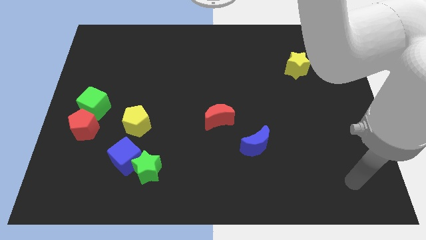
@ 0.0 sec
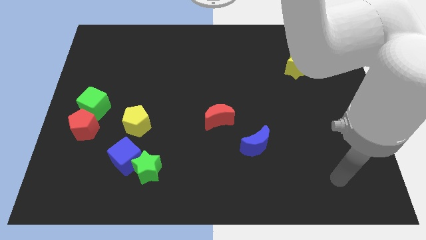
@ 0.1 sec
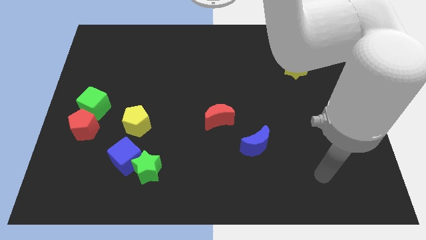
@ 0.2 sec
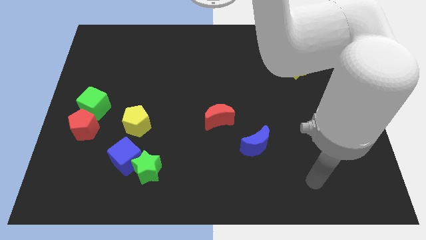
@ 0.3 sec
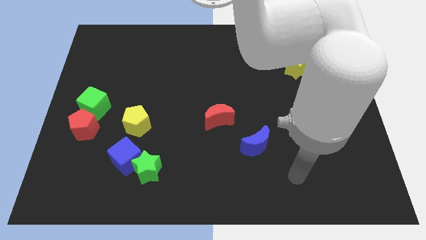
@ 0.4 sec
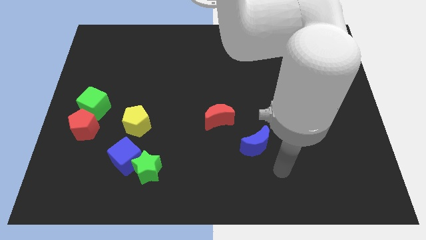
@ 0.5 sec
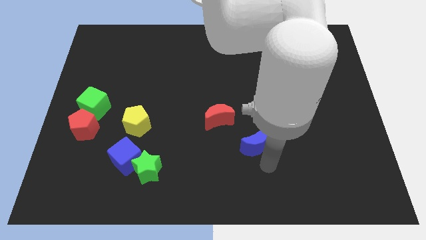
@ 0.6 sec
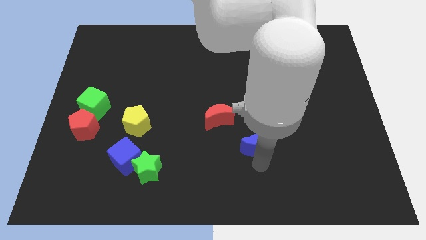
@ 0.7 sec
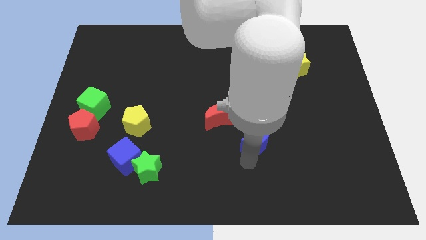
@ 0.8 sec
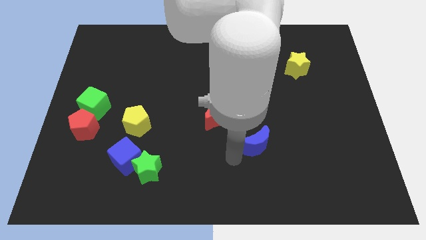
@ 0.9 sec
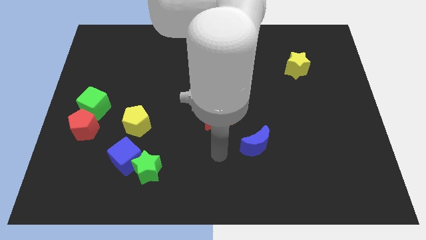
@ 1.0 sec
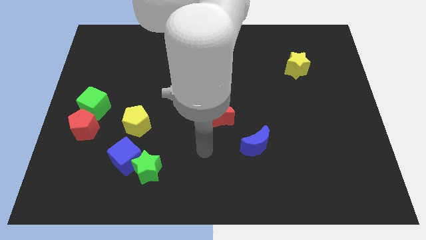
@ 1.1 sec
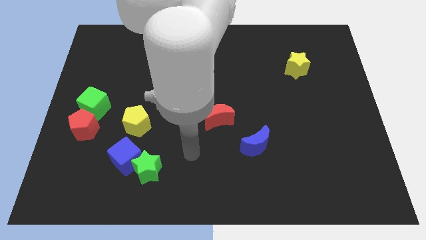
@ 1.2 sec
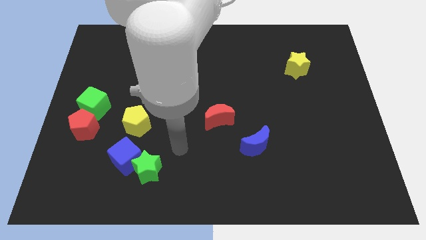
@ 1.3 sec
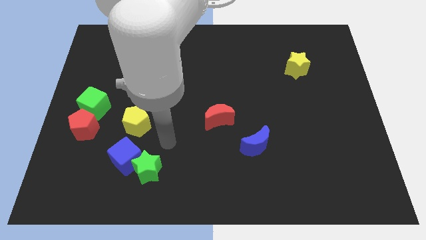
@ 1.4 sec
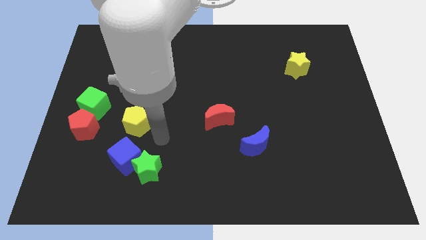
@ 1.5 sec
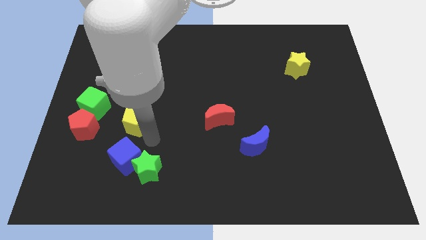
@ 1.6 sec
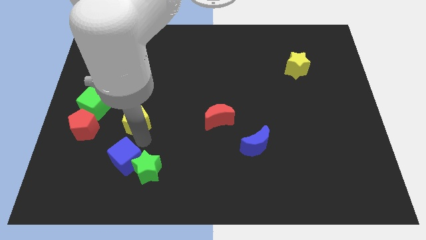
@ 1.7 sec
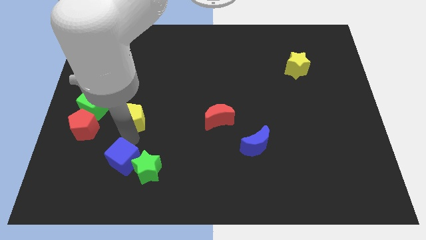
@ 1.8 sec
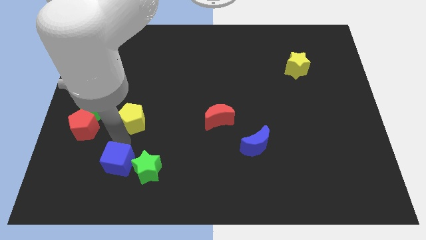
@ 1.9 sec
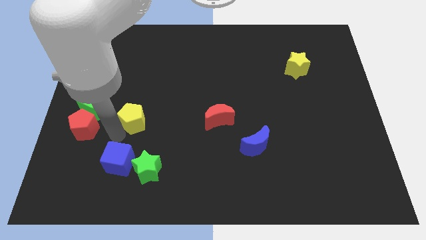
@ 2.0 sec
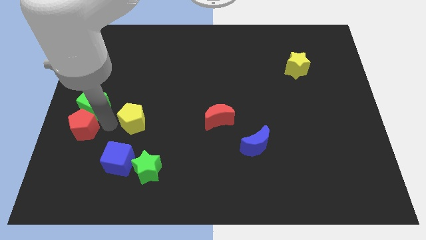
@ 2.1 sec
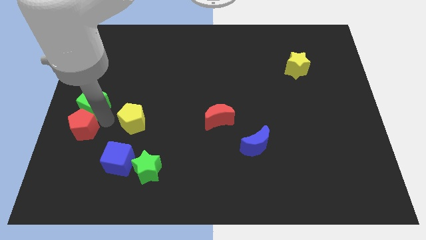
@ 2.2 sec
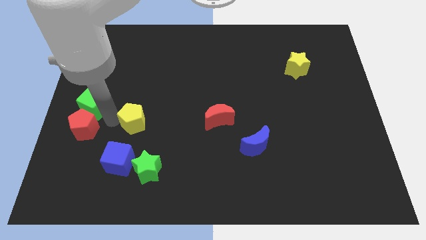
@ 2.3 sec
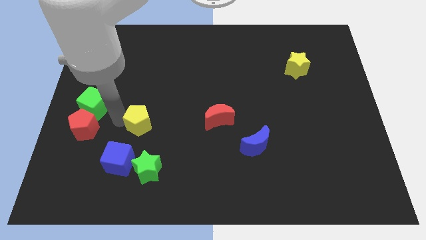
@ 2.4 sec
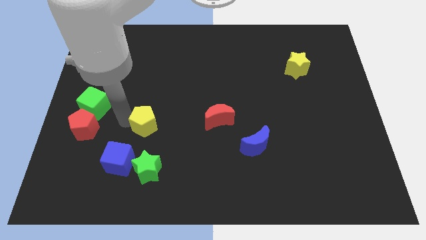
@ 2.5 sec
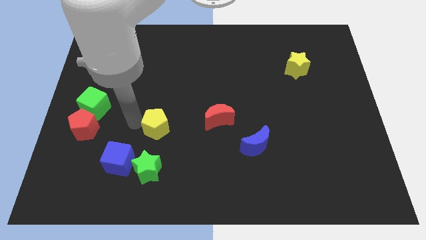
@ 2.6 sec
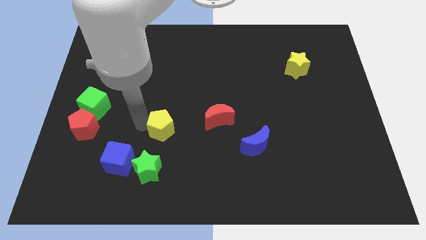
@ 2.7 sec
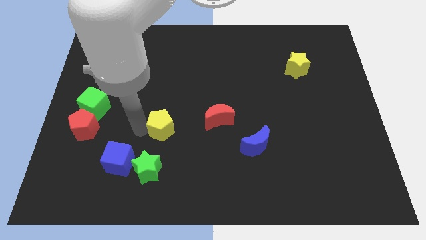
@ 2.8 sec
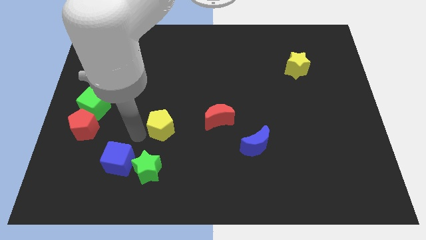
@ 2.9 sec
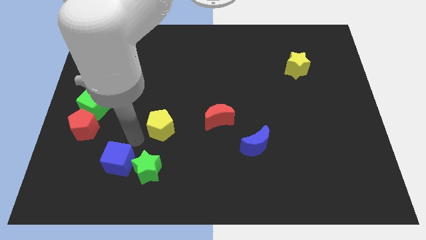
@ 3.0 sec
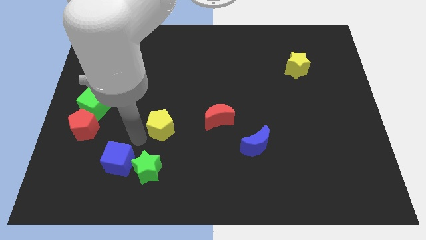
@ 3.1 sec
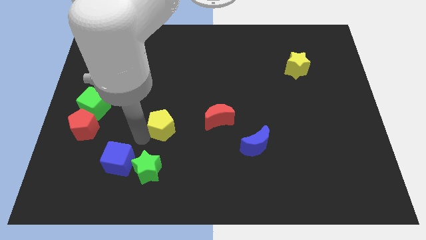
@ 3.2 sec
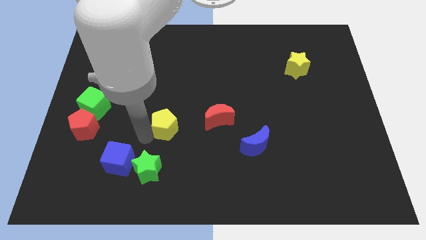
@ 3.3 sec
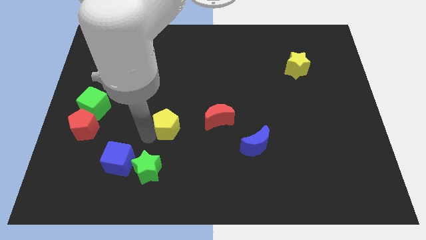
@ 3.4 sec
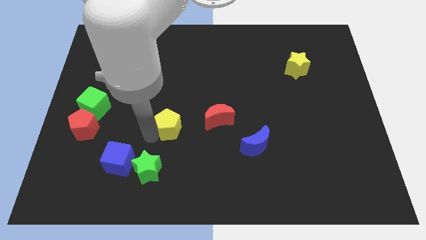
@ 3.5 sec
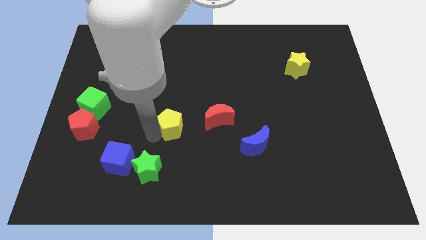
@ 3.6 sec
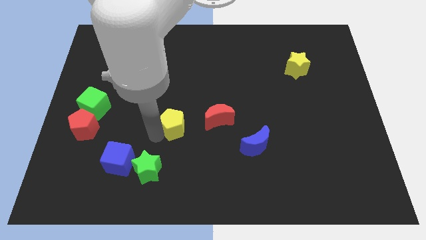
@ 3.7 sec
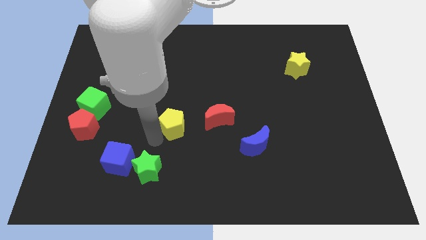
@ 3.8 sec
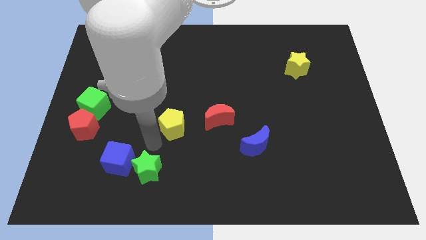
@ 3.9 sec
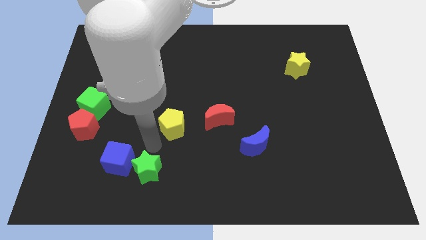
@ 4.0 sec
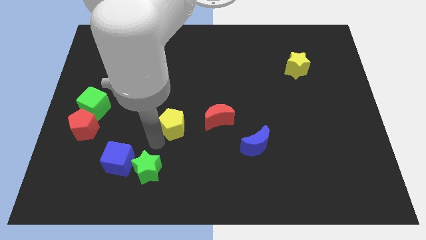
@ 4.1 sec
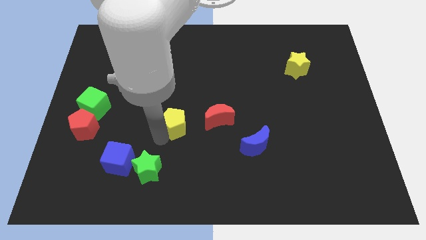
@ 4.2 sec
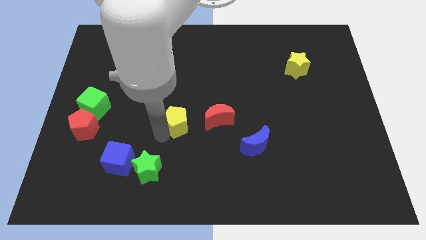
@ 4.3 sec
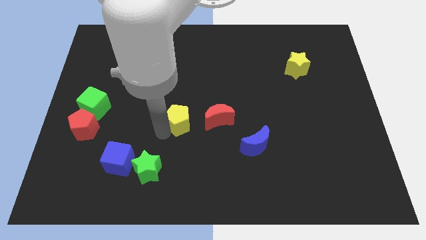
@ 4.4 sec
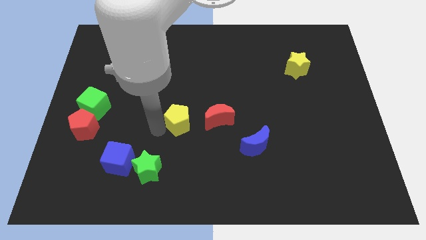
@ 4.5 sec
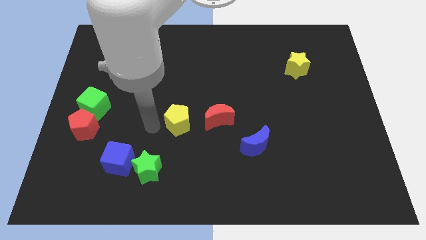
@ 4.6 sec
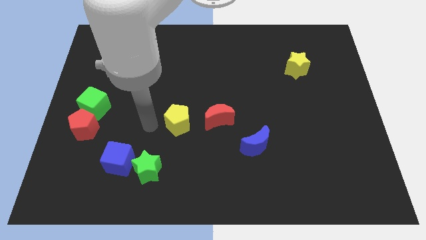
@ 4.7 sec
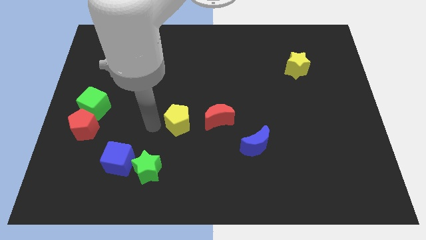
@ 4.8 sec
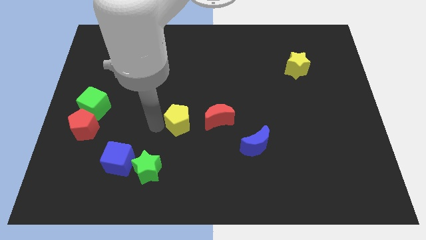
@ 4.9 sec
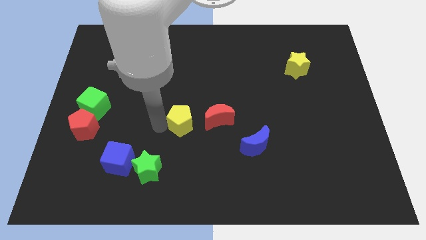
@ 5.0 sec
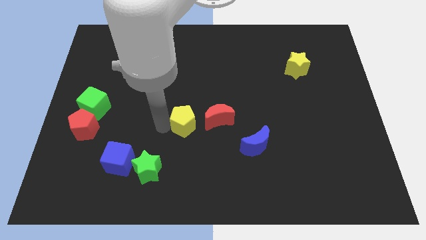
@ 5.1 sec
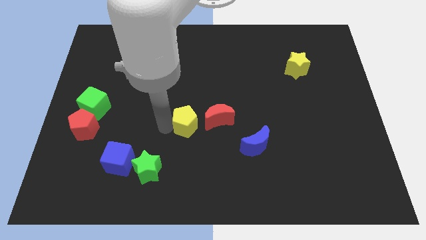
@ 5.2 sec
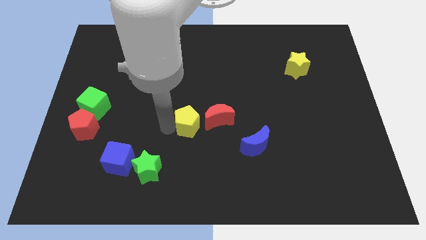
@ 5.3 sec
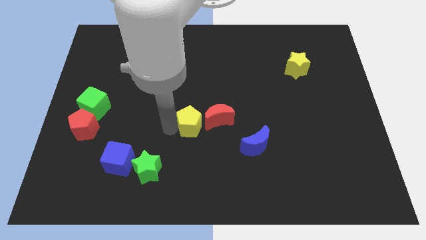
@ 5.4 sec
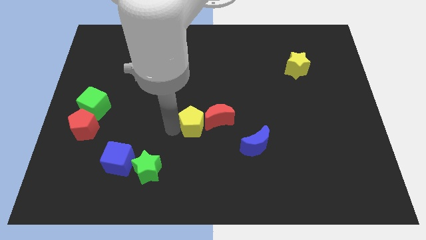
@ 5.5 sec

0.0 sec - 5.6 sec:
put the yellow pentagon towards the red moon

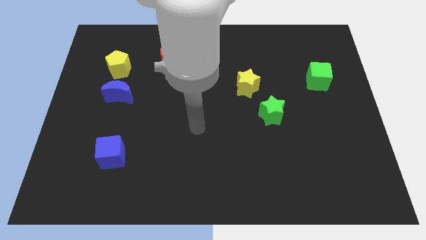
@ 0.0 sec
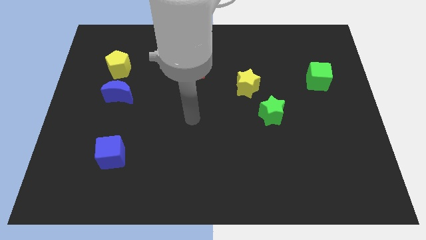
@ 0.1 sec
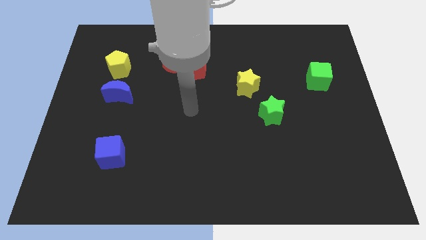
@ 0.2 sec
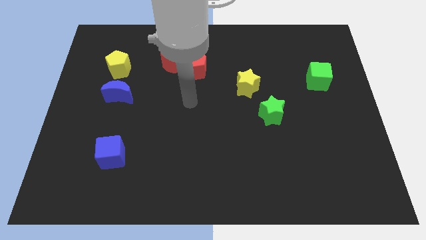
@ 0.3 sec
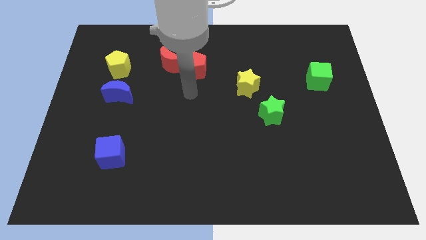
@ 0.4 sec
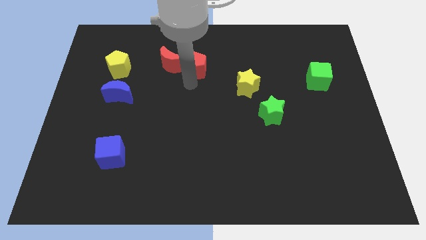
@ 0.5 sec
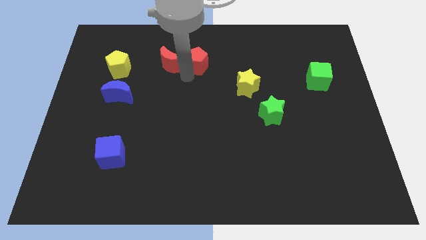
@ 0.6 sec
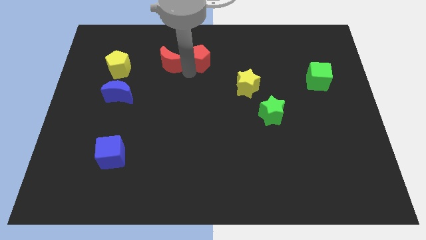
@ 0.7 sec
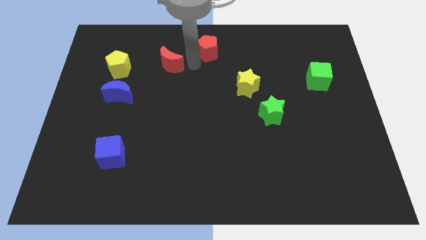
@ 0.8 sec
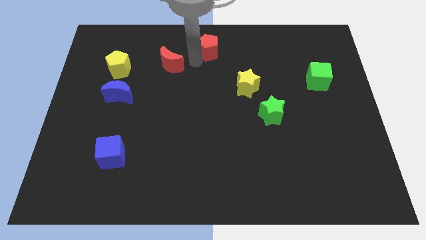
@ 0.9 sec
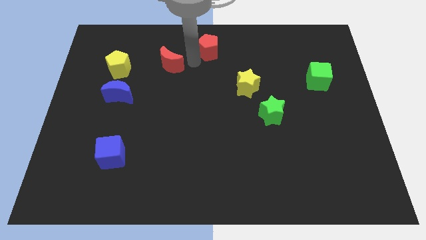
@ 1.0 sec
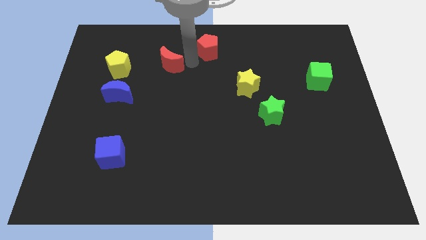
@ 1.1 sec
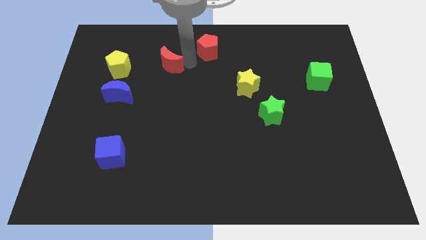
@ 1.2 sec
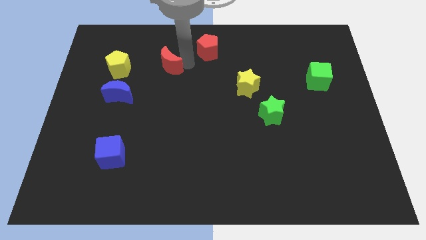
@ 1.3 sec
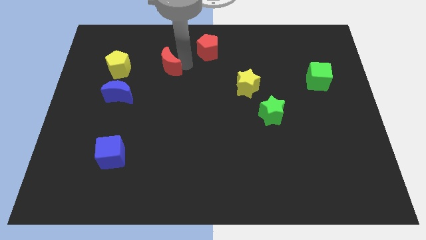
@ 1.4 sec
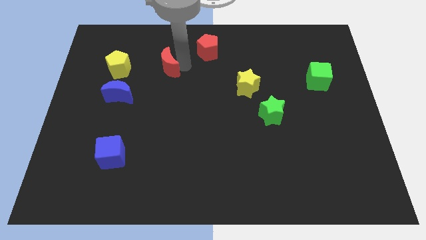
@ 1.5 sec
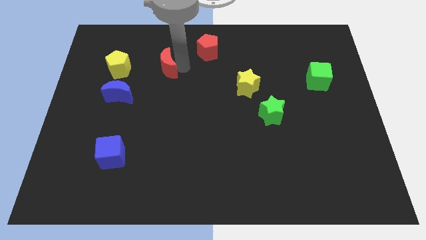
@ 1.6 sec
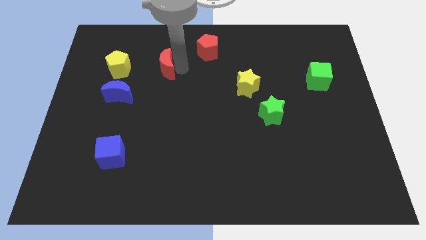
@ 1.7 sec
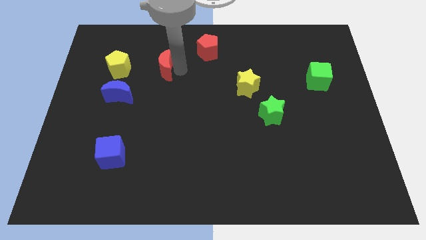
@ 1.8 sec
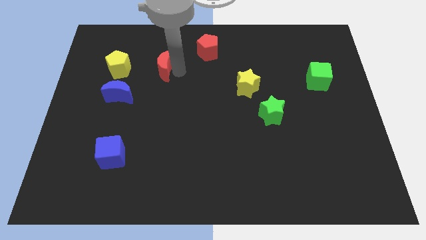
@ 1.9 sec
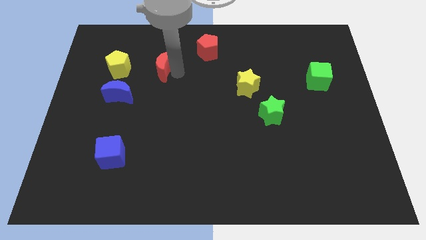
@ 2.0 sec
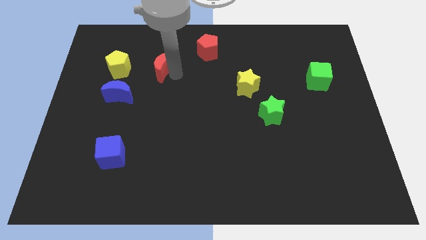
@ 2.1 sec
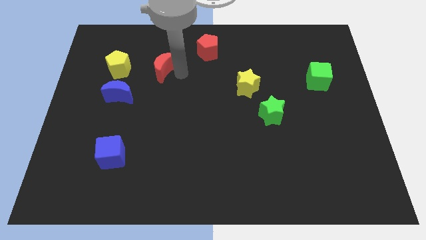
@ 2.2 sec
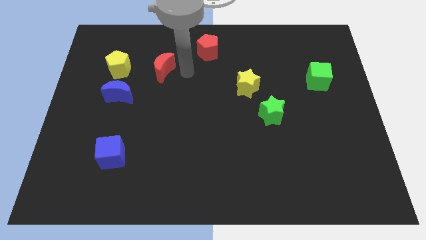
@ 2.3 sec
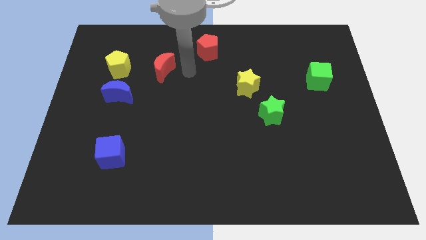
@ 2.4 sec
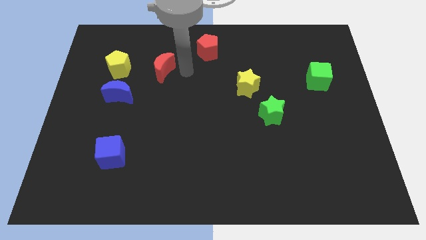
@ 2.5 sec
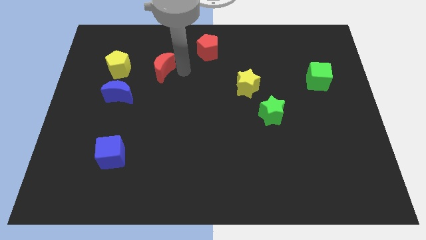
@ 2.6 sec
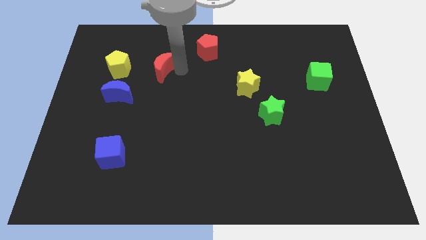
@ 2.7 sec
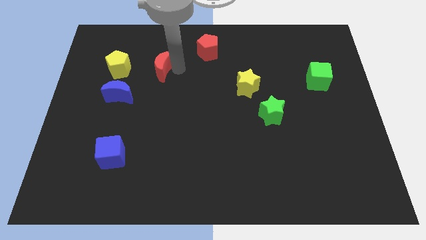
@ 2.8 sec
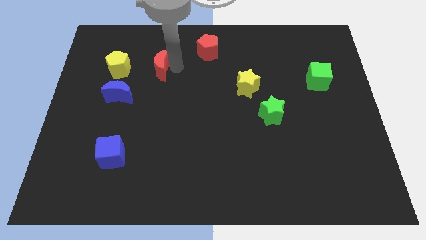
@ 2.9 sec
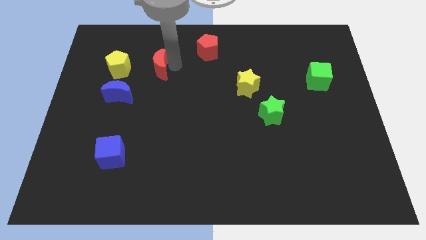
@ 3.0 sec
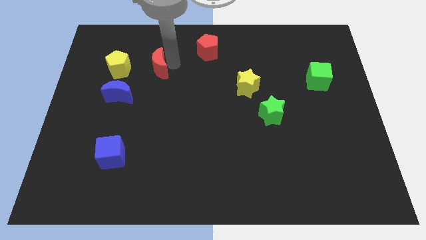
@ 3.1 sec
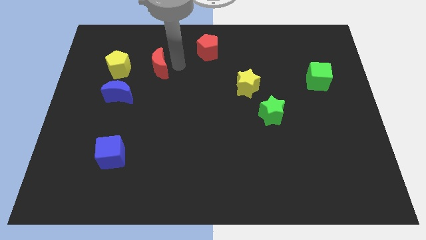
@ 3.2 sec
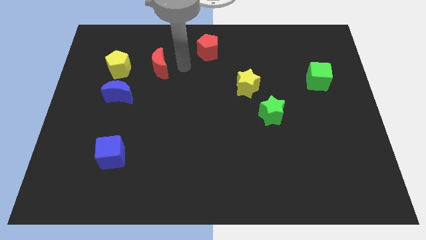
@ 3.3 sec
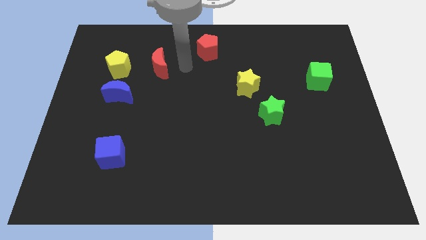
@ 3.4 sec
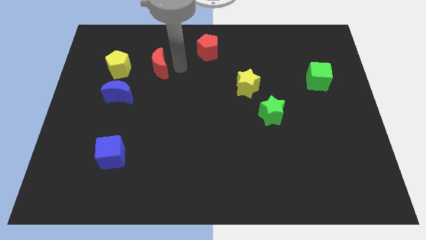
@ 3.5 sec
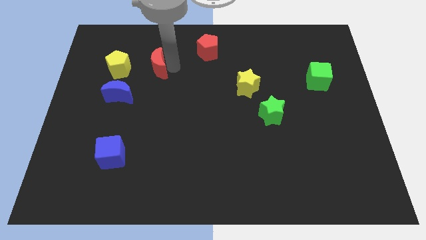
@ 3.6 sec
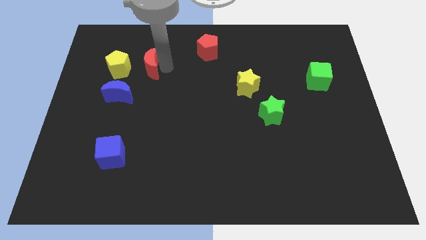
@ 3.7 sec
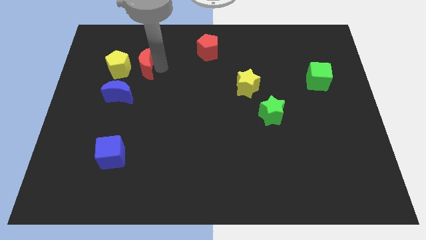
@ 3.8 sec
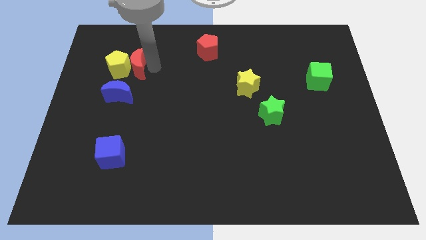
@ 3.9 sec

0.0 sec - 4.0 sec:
put the red moon towards the yellow pentagon
